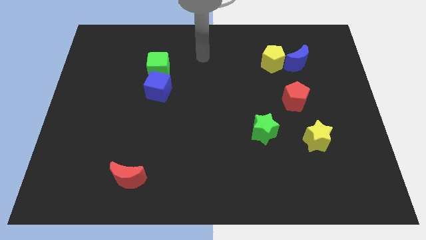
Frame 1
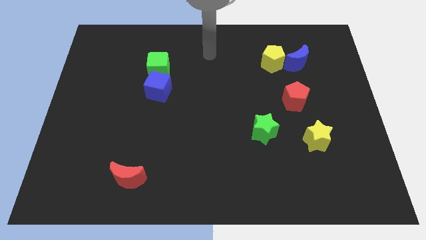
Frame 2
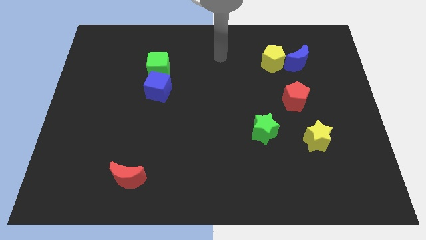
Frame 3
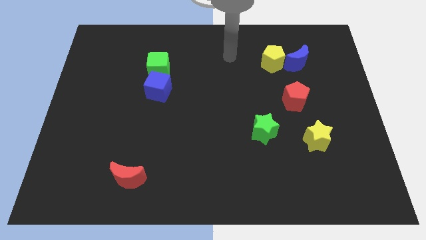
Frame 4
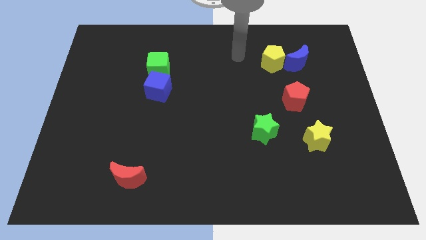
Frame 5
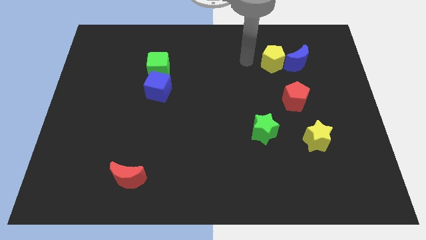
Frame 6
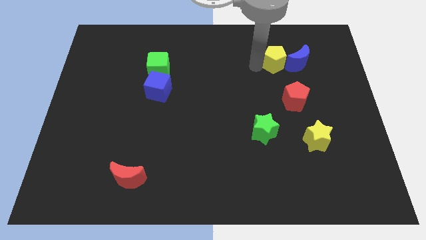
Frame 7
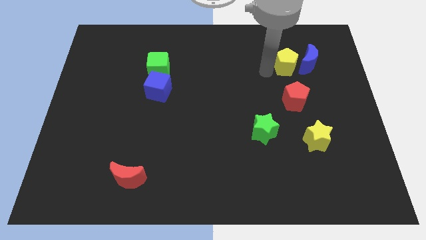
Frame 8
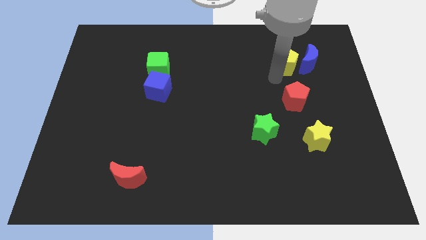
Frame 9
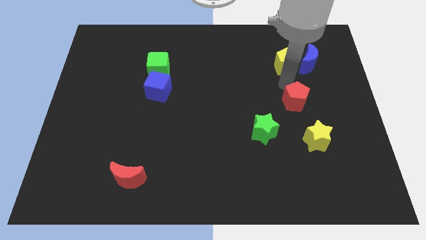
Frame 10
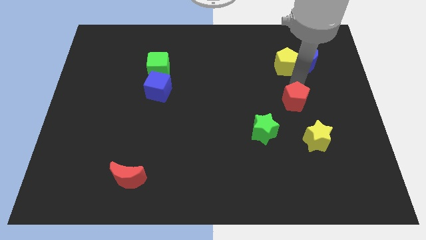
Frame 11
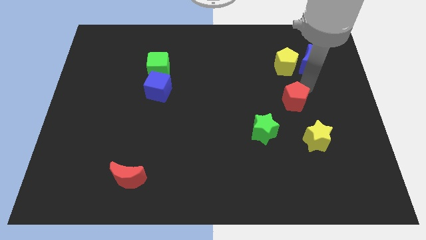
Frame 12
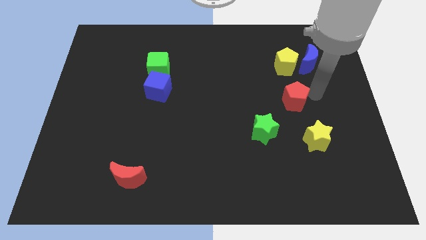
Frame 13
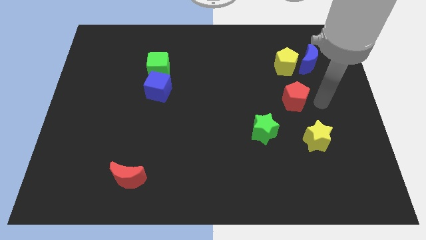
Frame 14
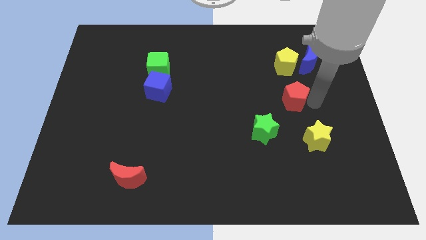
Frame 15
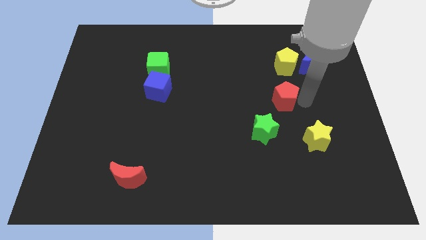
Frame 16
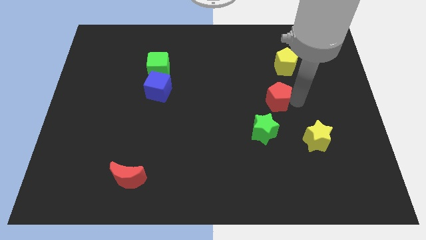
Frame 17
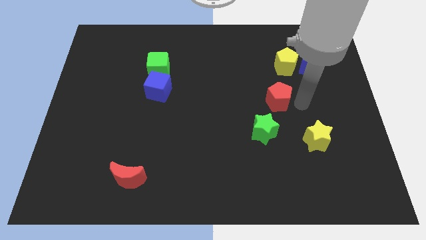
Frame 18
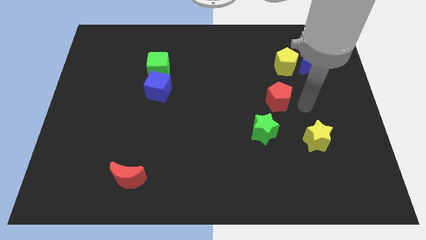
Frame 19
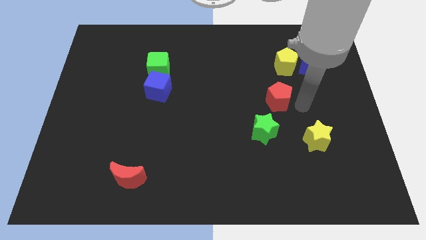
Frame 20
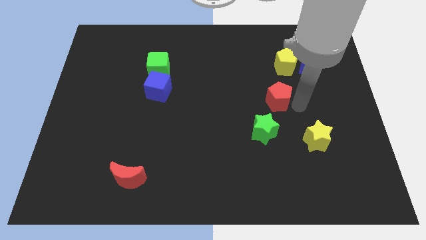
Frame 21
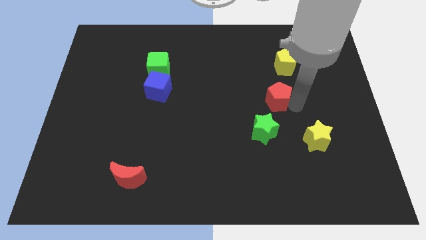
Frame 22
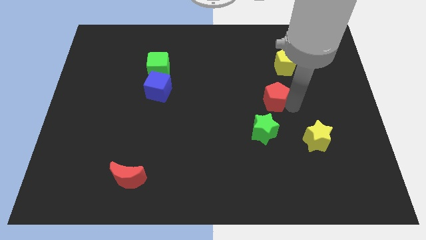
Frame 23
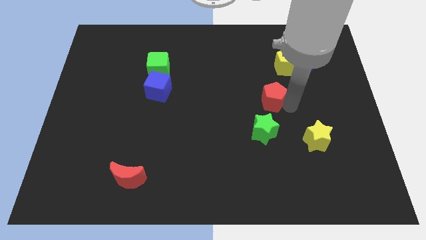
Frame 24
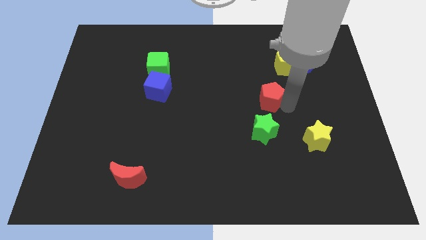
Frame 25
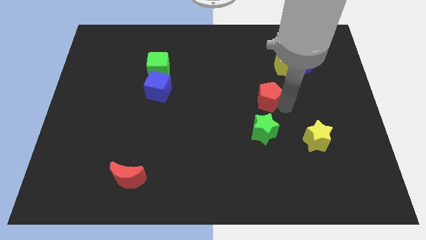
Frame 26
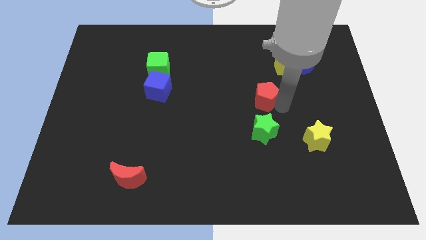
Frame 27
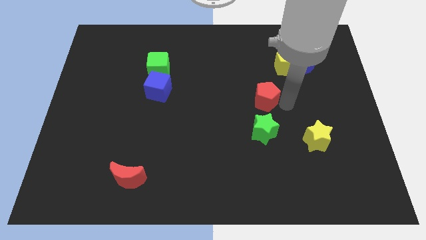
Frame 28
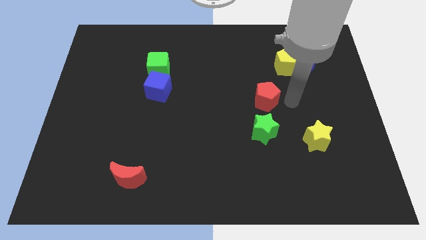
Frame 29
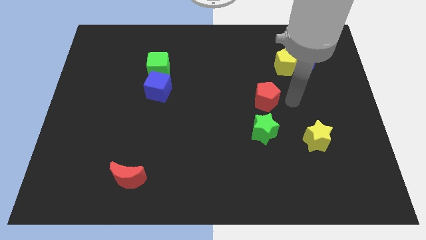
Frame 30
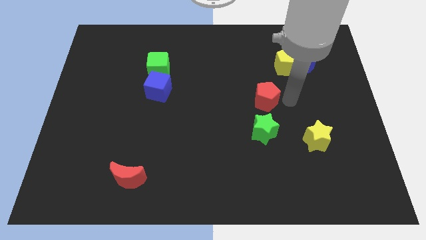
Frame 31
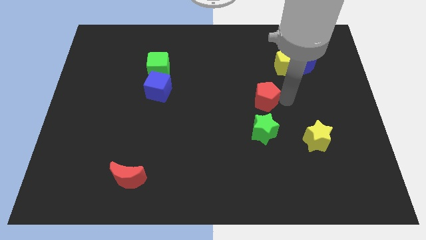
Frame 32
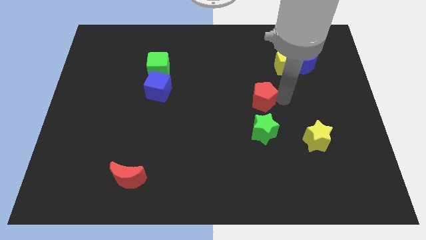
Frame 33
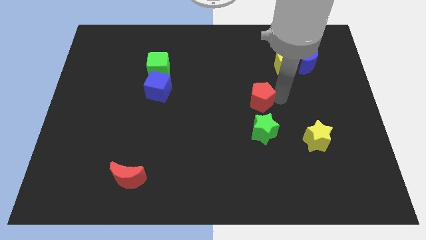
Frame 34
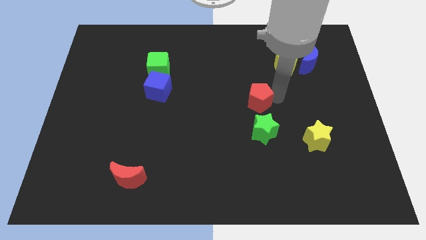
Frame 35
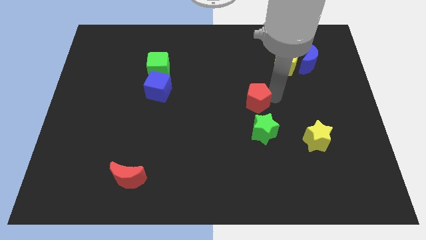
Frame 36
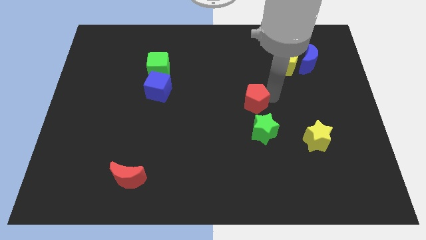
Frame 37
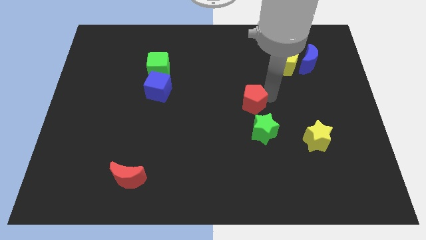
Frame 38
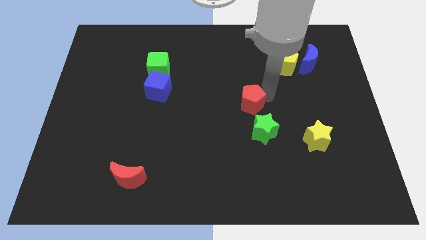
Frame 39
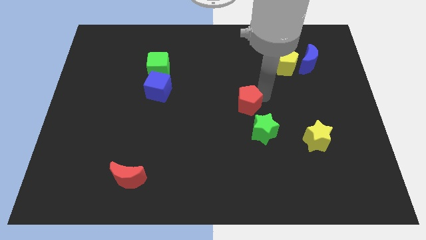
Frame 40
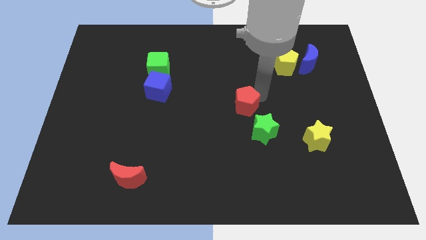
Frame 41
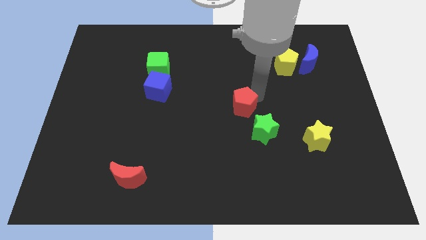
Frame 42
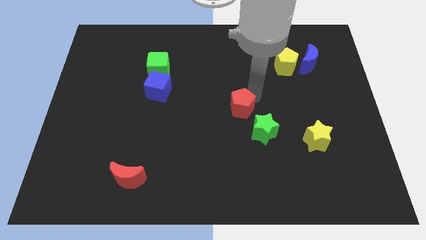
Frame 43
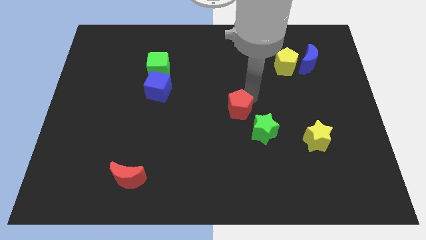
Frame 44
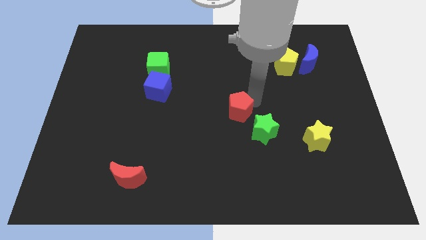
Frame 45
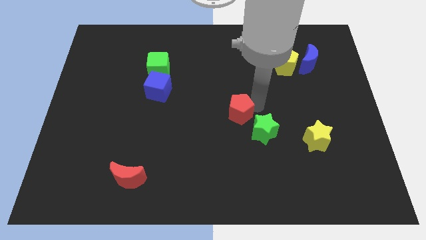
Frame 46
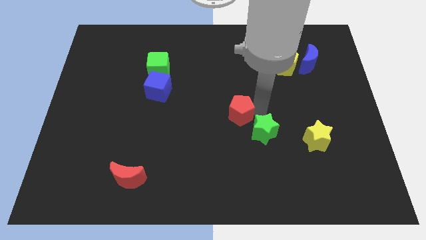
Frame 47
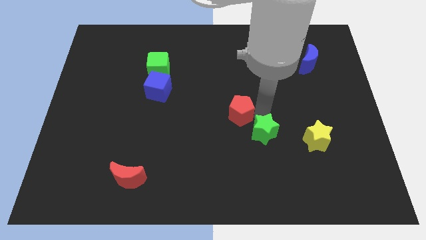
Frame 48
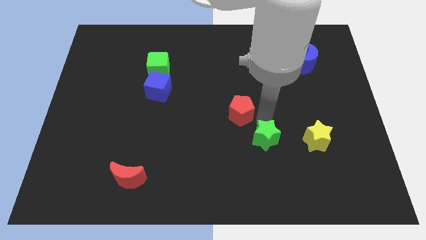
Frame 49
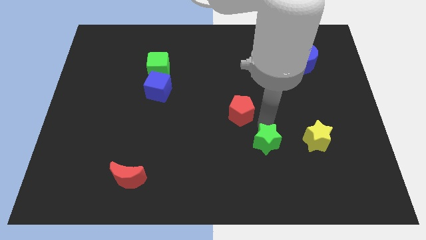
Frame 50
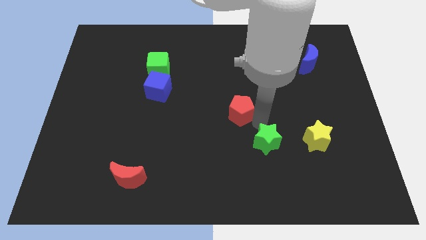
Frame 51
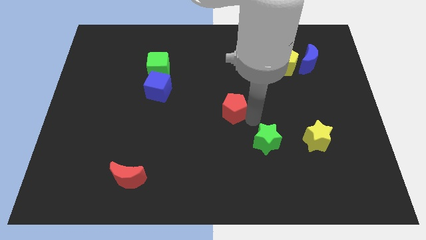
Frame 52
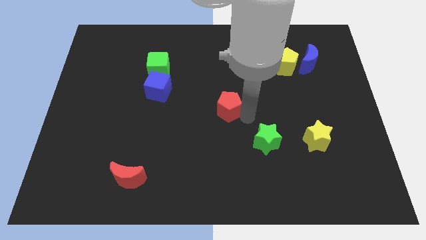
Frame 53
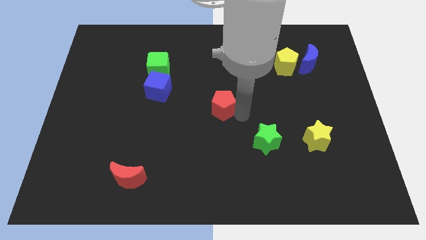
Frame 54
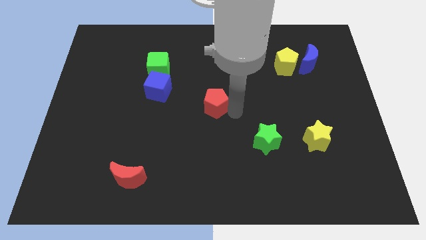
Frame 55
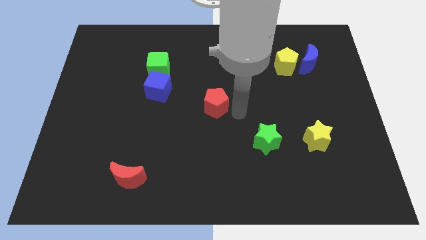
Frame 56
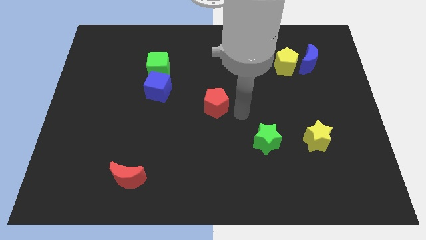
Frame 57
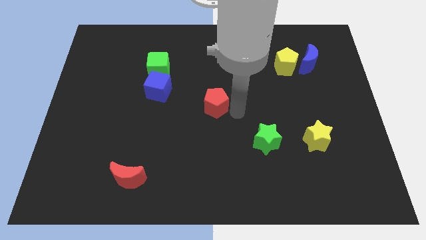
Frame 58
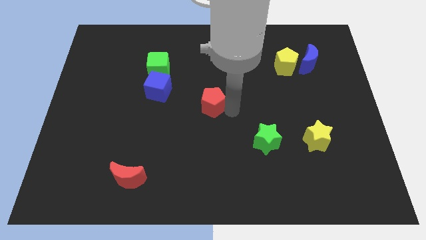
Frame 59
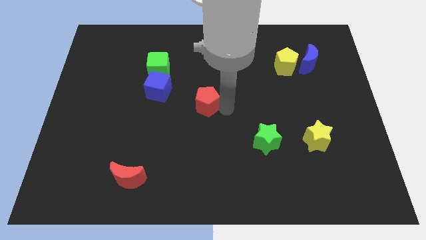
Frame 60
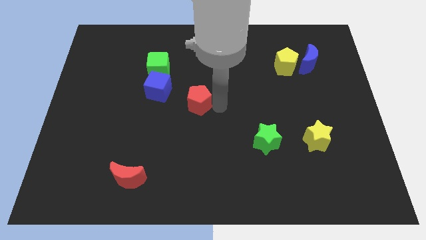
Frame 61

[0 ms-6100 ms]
move the red pentagon to the bottom right of the blue cube

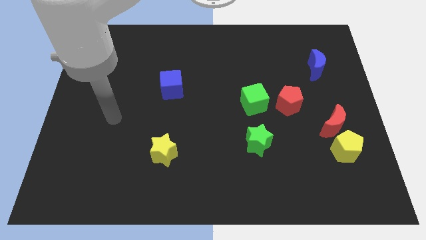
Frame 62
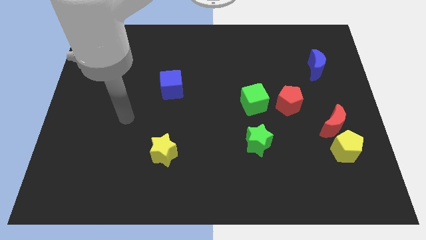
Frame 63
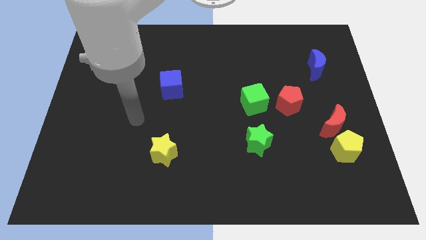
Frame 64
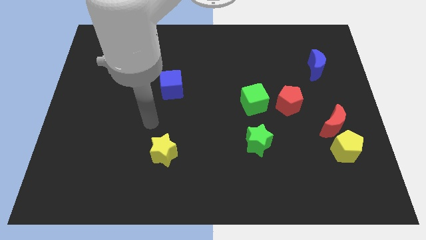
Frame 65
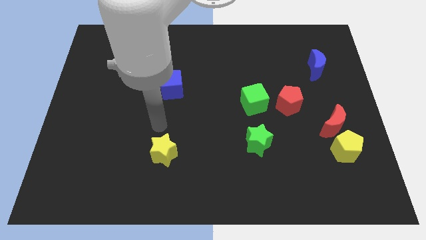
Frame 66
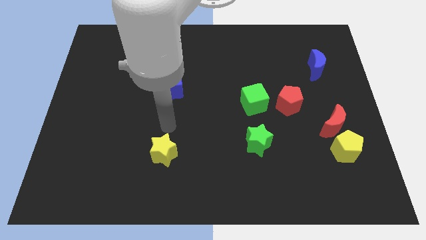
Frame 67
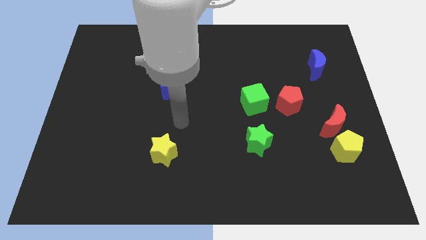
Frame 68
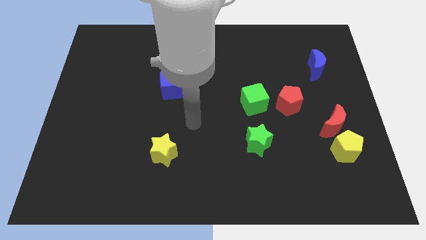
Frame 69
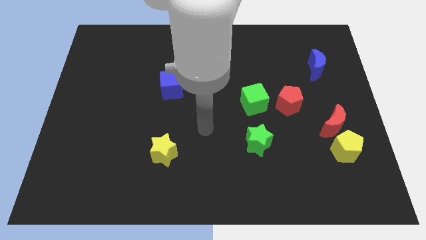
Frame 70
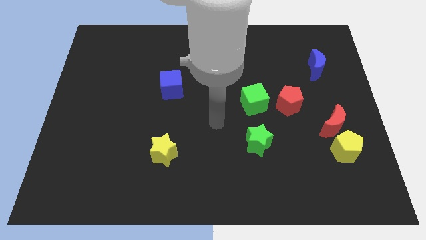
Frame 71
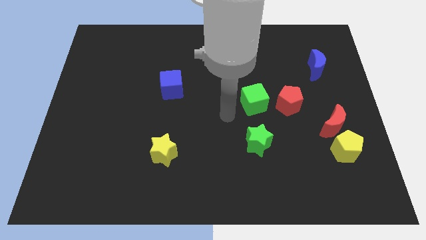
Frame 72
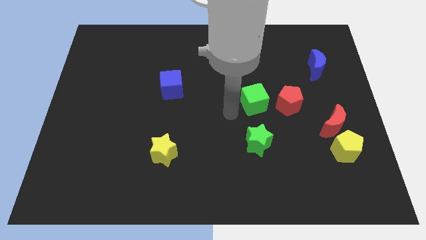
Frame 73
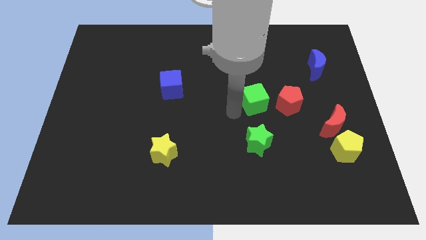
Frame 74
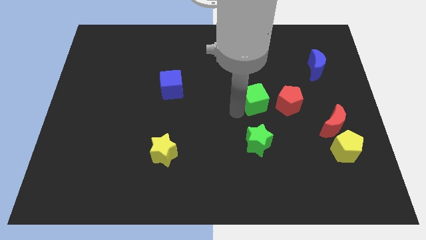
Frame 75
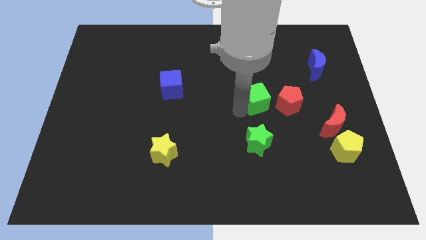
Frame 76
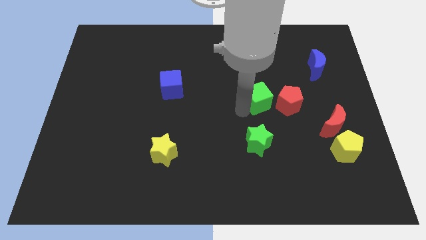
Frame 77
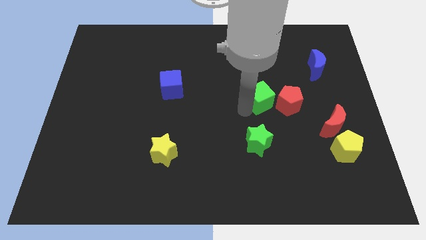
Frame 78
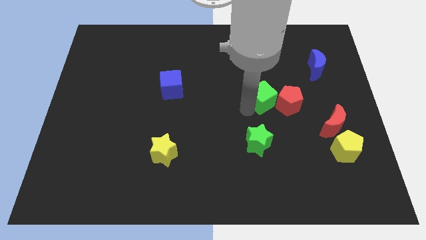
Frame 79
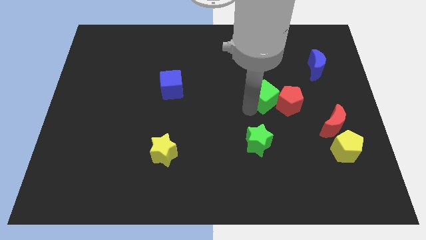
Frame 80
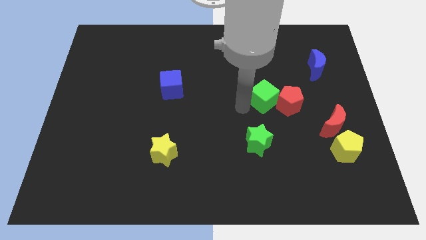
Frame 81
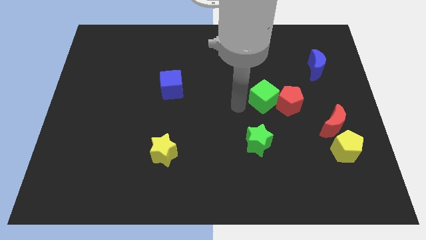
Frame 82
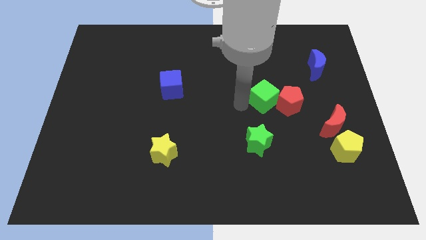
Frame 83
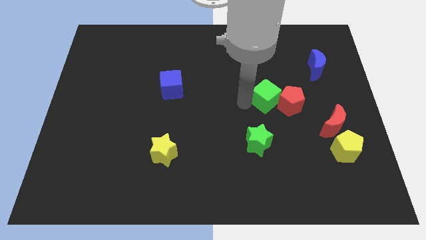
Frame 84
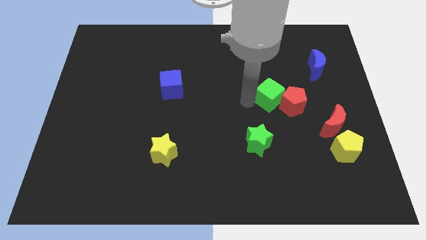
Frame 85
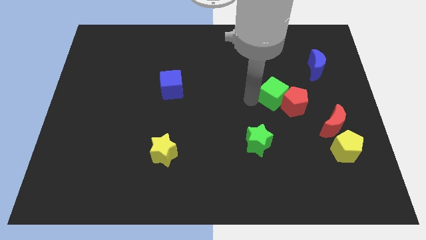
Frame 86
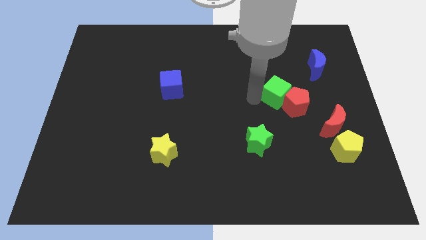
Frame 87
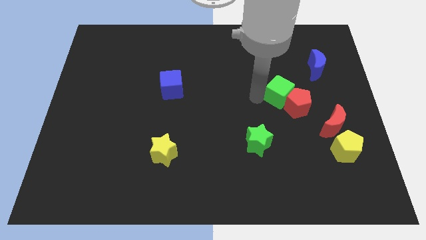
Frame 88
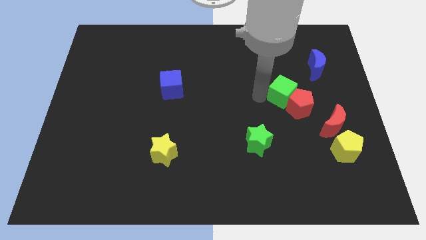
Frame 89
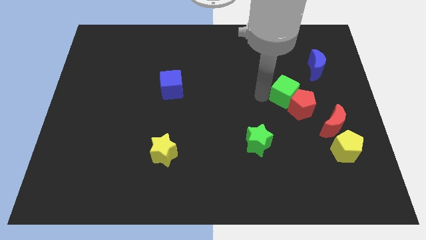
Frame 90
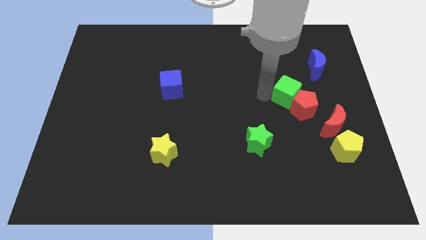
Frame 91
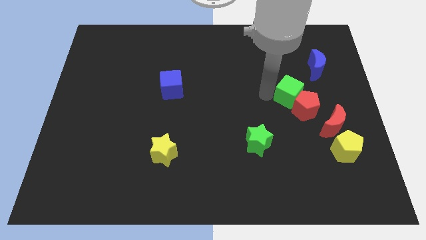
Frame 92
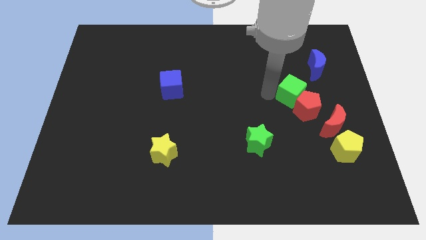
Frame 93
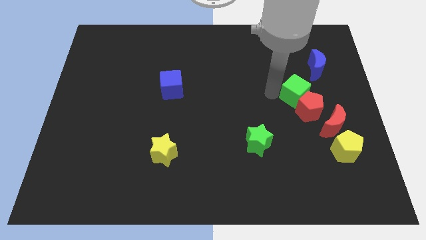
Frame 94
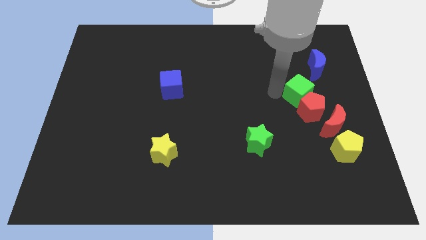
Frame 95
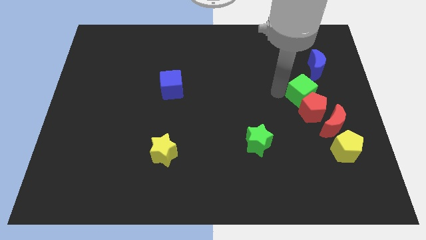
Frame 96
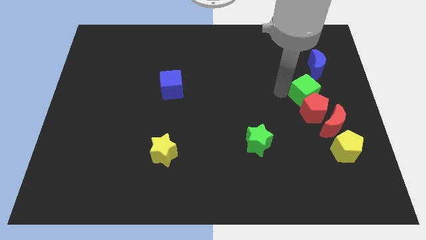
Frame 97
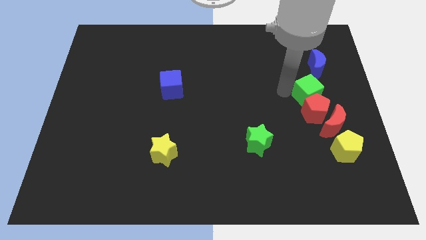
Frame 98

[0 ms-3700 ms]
slide the green cube above the red moon
